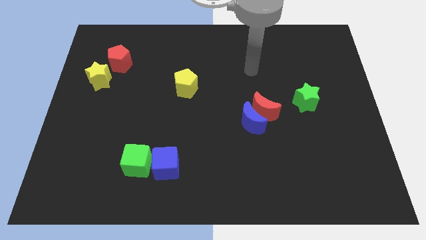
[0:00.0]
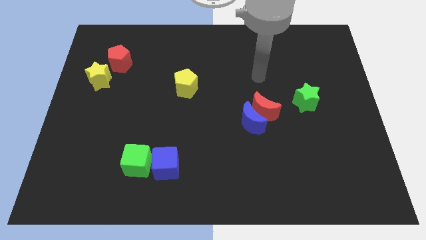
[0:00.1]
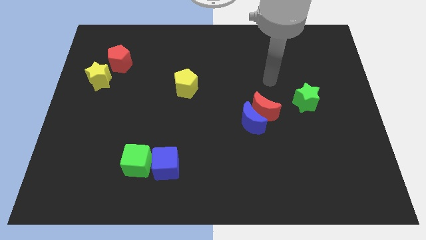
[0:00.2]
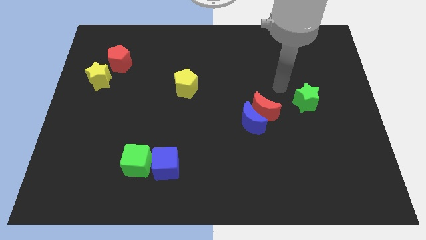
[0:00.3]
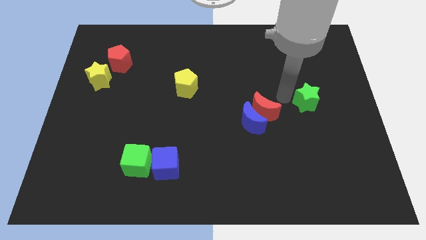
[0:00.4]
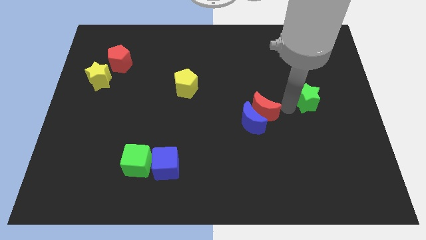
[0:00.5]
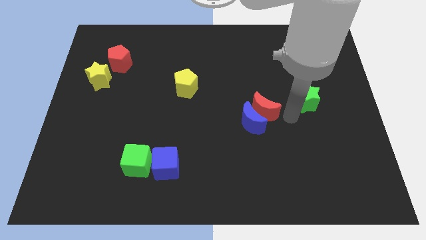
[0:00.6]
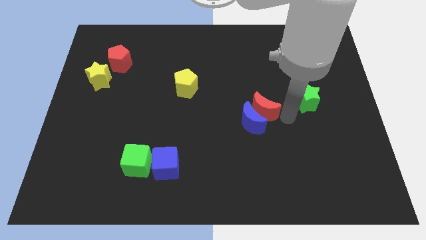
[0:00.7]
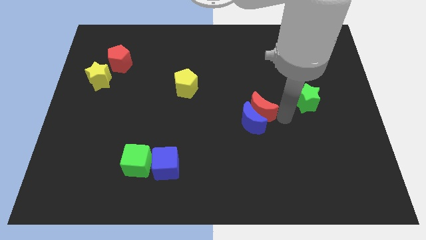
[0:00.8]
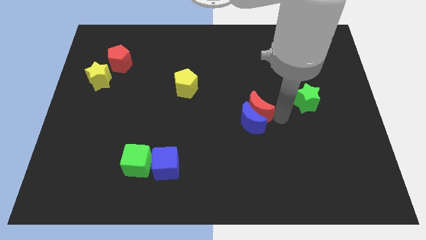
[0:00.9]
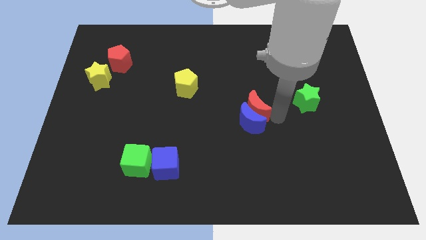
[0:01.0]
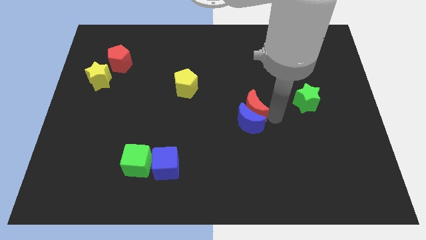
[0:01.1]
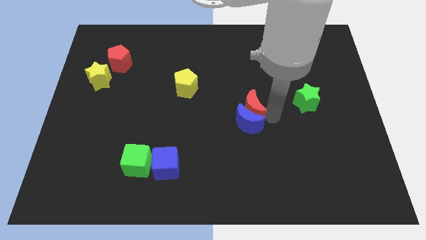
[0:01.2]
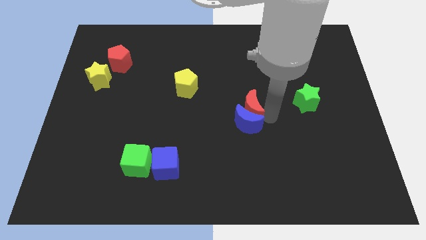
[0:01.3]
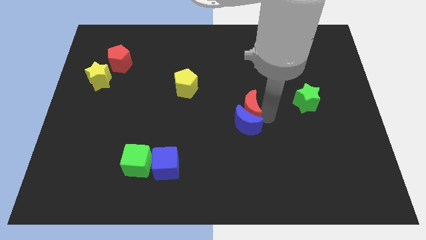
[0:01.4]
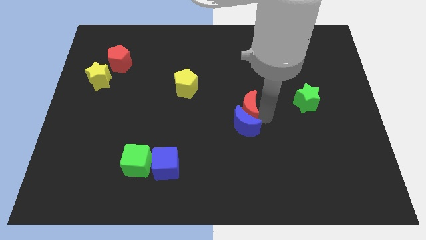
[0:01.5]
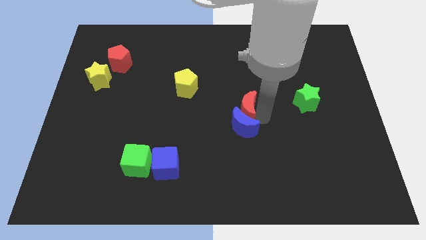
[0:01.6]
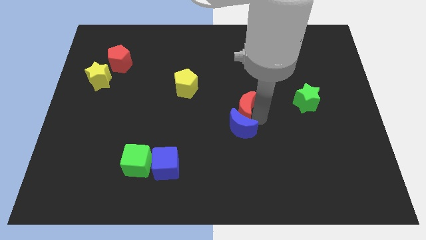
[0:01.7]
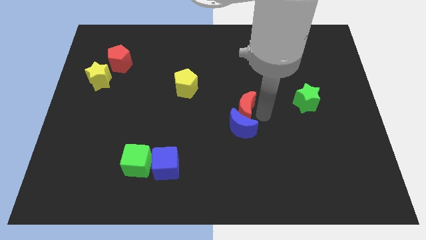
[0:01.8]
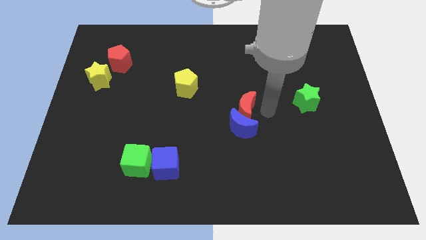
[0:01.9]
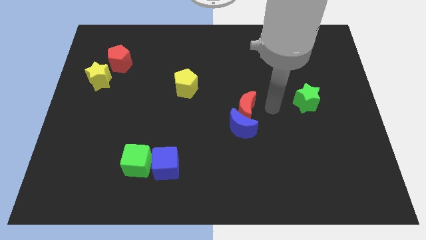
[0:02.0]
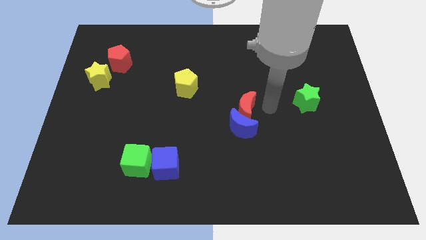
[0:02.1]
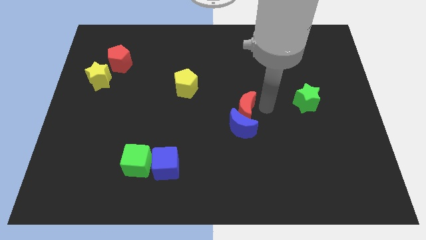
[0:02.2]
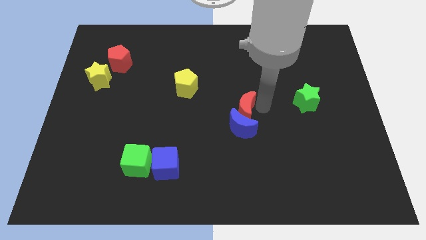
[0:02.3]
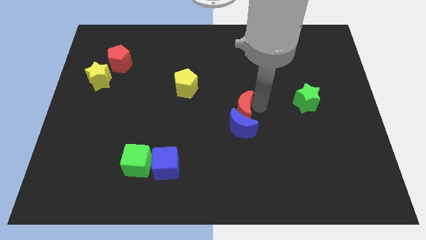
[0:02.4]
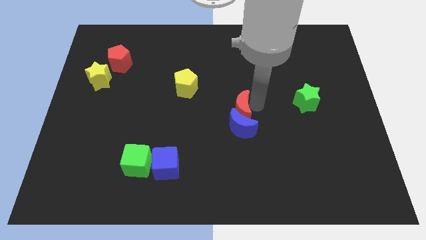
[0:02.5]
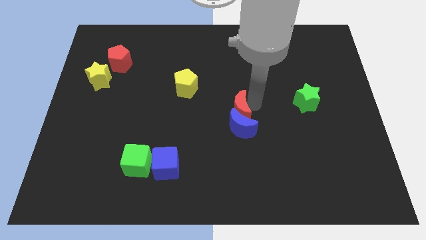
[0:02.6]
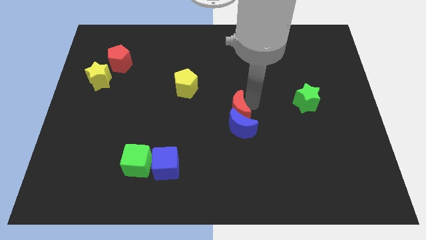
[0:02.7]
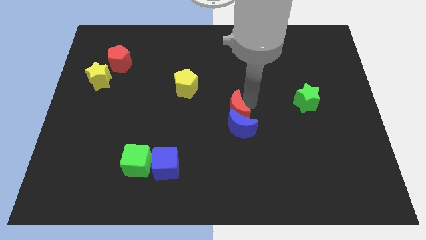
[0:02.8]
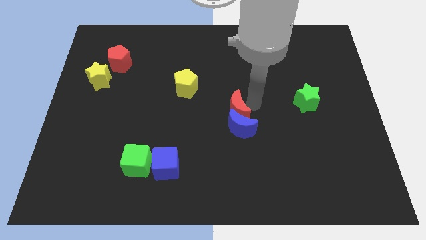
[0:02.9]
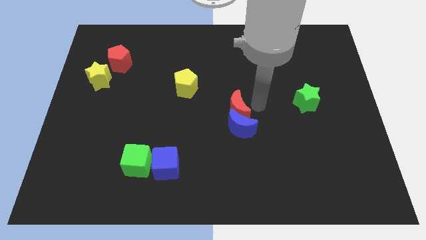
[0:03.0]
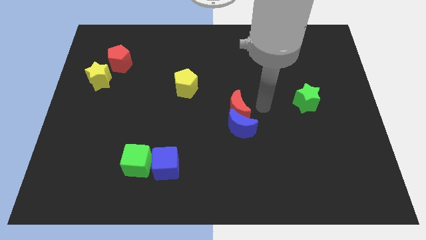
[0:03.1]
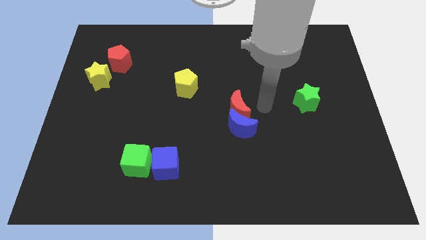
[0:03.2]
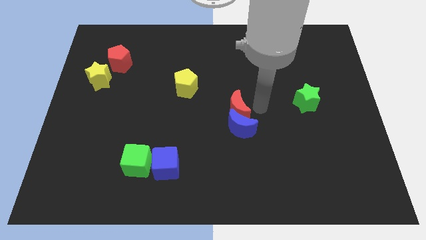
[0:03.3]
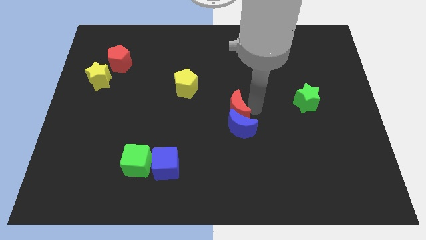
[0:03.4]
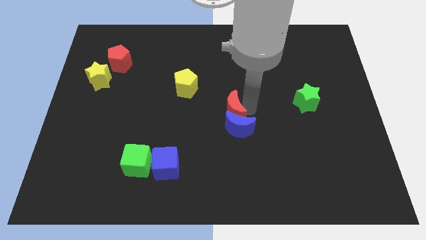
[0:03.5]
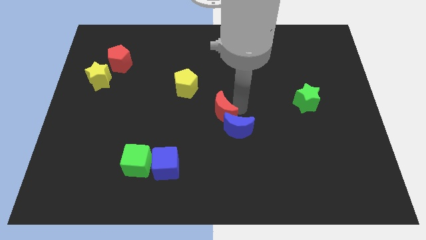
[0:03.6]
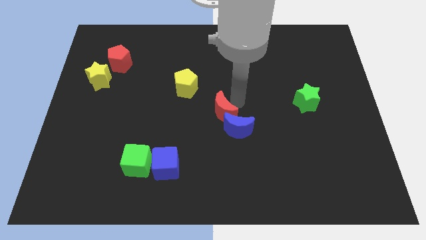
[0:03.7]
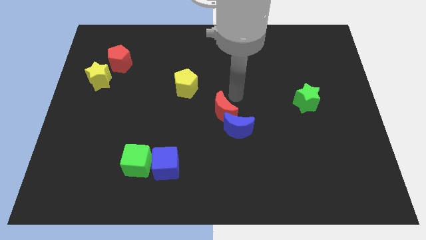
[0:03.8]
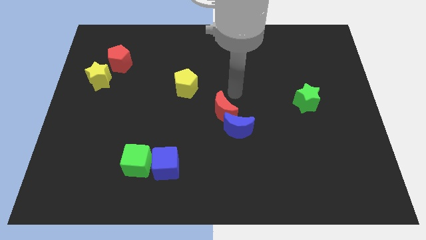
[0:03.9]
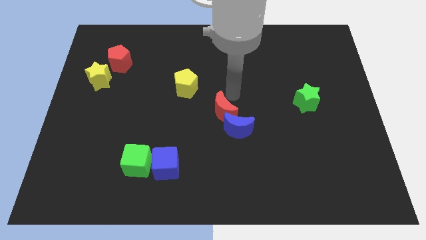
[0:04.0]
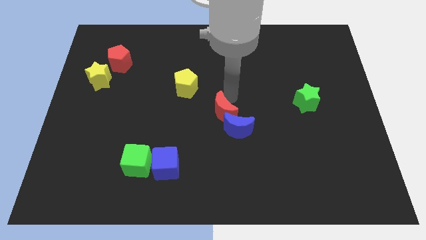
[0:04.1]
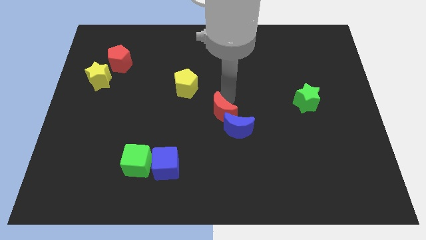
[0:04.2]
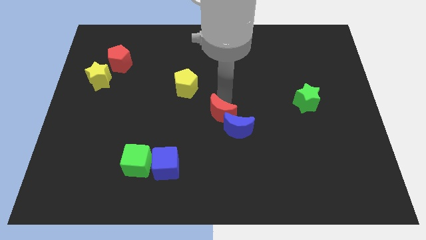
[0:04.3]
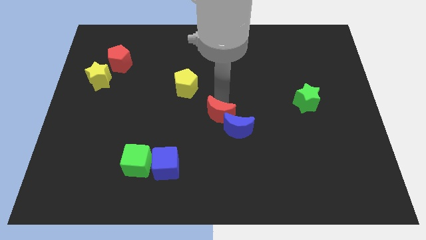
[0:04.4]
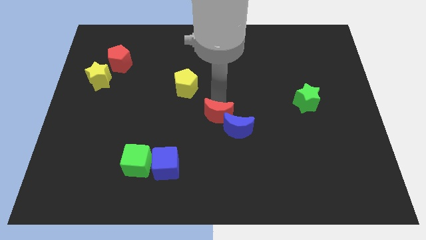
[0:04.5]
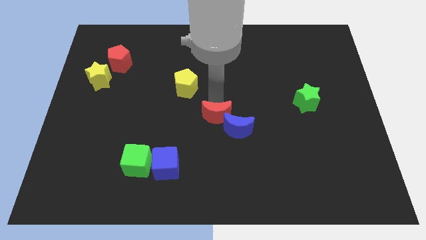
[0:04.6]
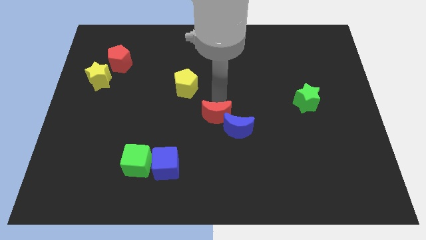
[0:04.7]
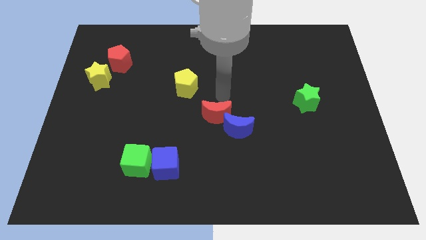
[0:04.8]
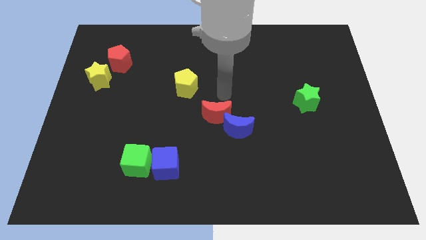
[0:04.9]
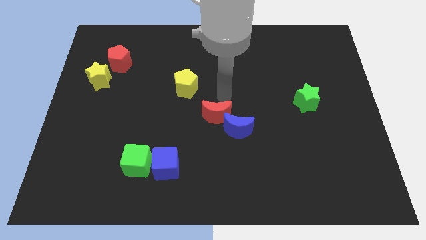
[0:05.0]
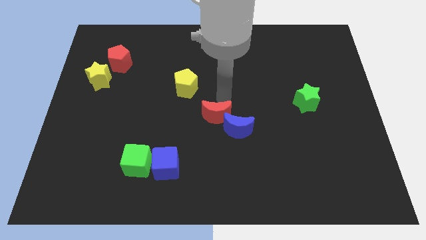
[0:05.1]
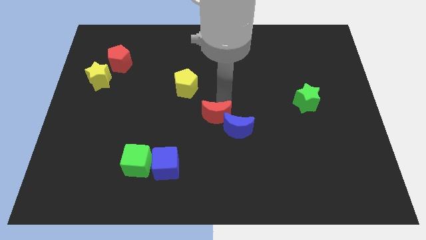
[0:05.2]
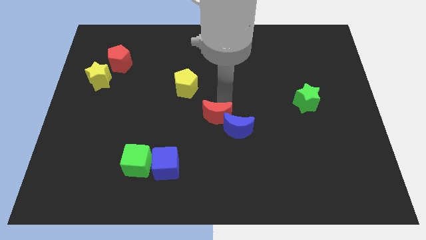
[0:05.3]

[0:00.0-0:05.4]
slightly push the red moon downwards and to the left diagonally

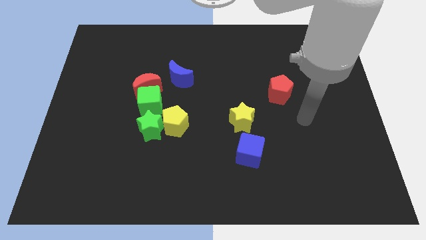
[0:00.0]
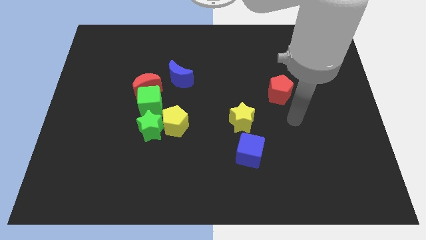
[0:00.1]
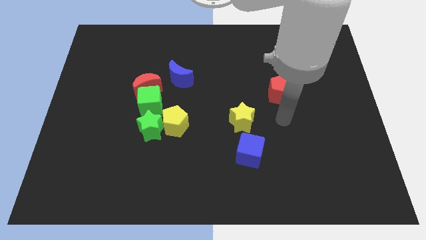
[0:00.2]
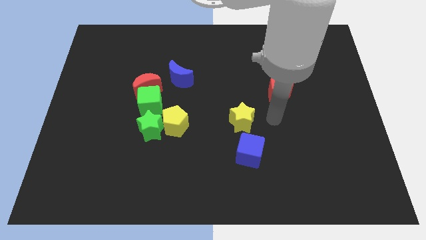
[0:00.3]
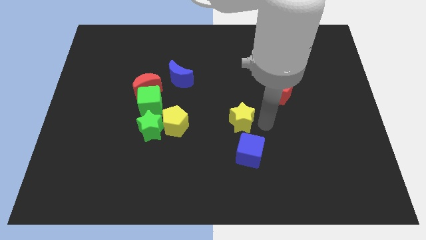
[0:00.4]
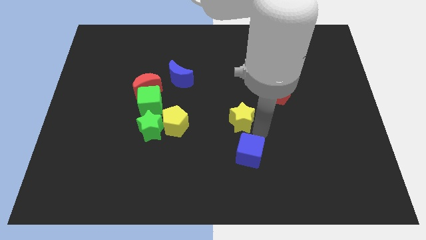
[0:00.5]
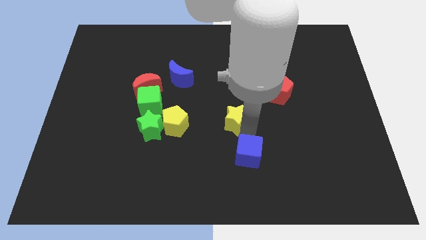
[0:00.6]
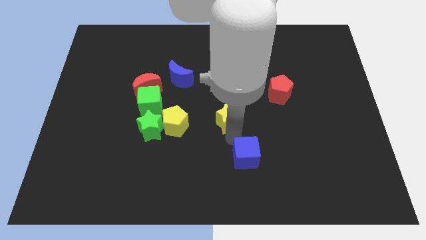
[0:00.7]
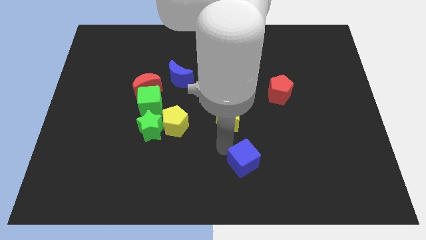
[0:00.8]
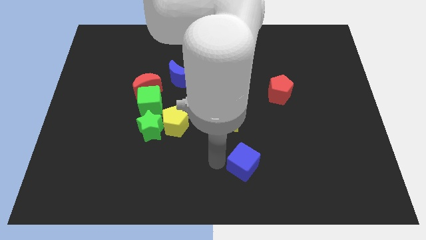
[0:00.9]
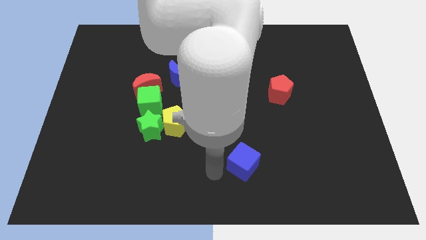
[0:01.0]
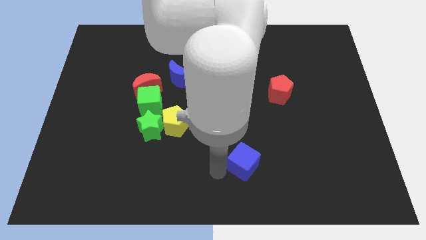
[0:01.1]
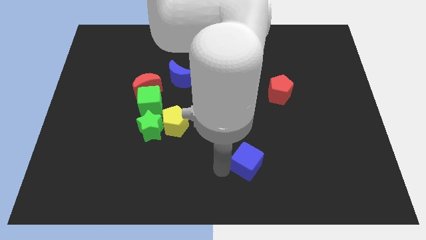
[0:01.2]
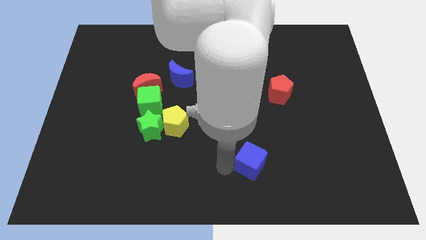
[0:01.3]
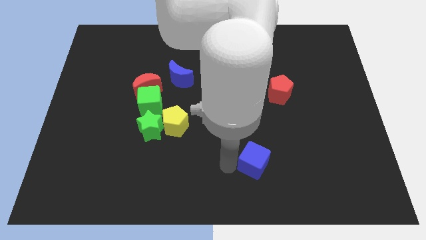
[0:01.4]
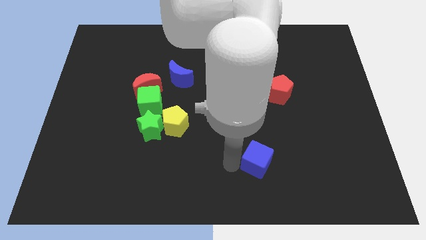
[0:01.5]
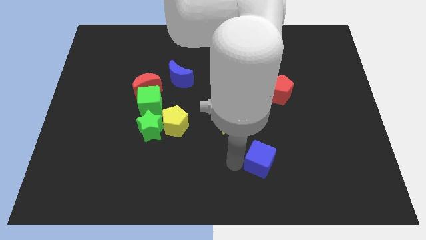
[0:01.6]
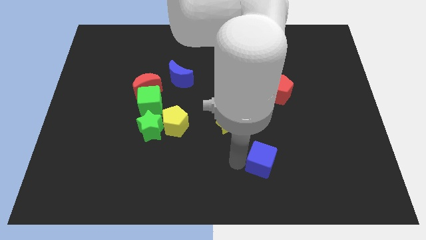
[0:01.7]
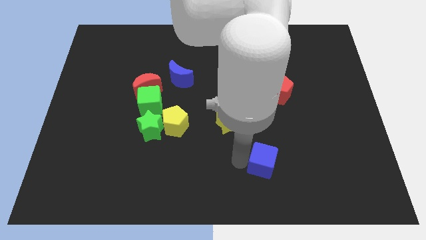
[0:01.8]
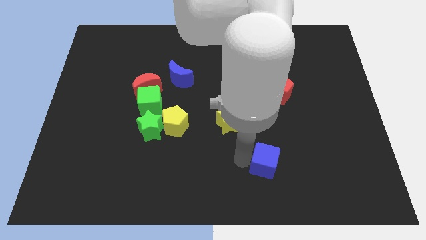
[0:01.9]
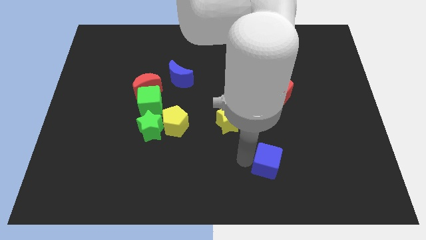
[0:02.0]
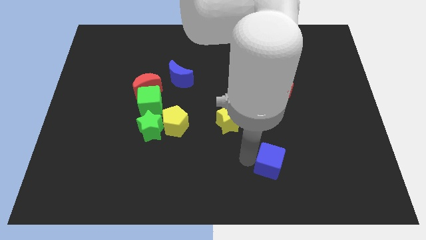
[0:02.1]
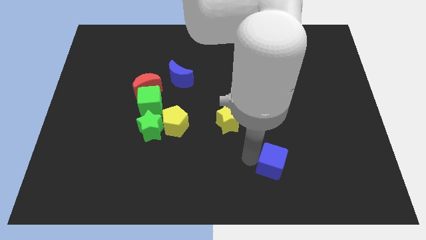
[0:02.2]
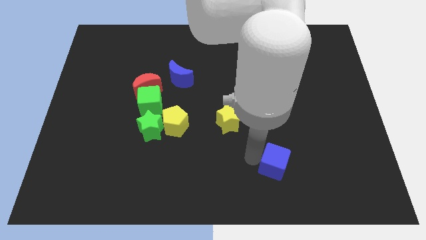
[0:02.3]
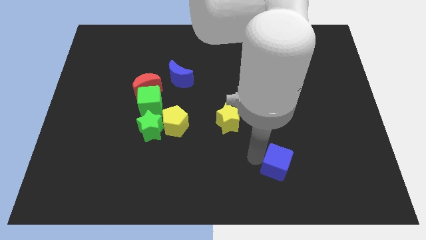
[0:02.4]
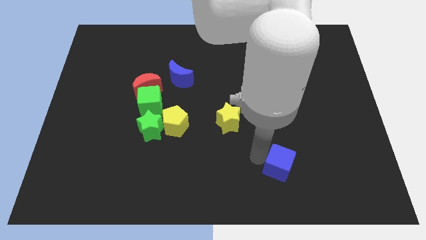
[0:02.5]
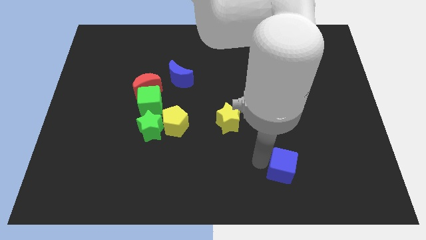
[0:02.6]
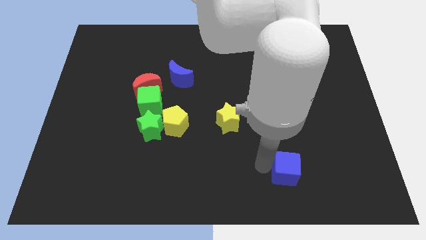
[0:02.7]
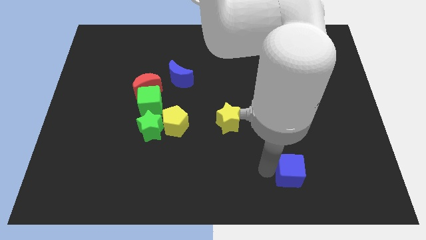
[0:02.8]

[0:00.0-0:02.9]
slide the blue cube a bit to the right
